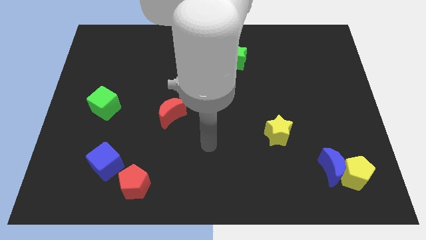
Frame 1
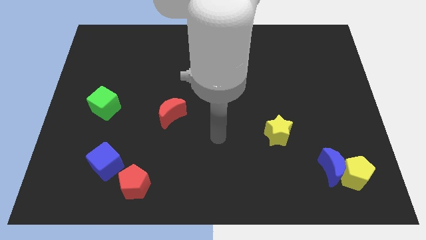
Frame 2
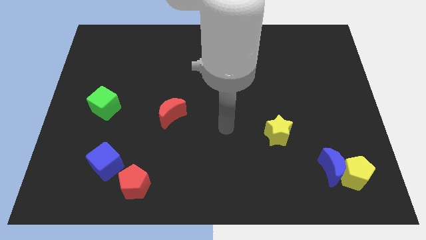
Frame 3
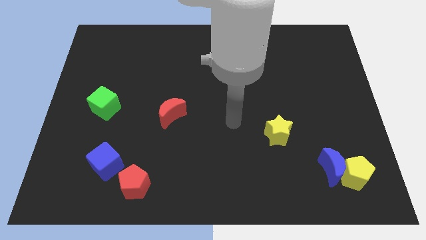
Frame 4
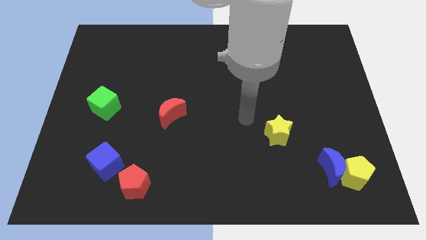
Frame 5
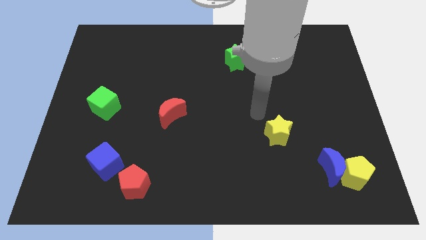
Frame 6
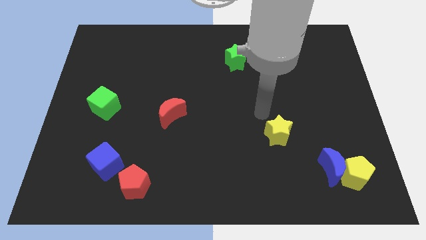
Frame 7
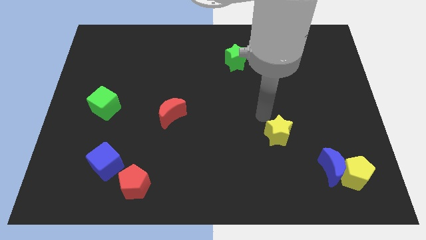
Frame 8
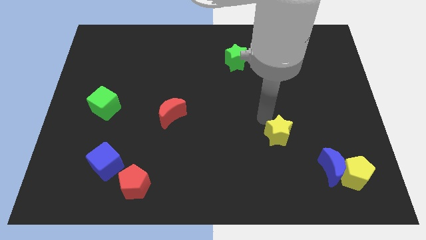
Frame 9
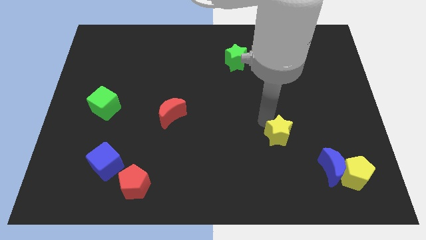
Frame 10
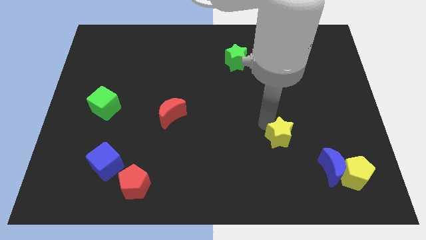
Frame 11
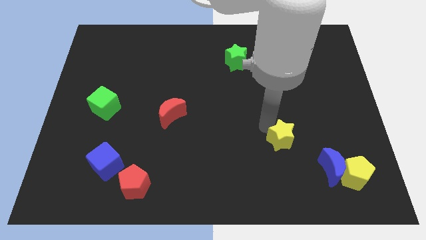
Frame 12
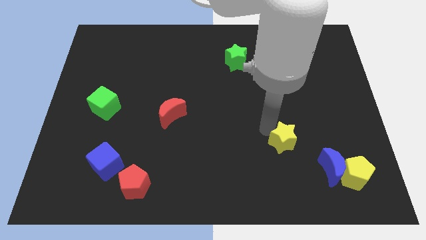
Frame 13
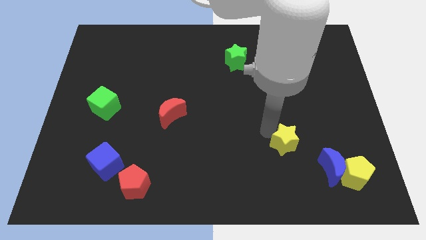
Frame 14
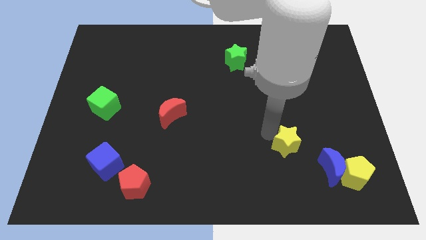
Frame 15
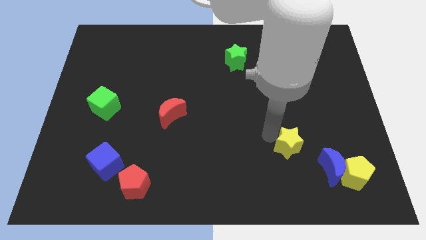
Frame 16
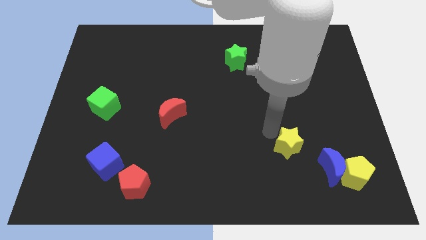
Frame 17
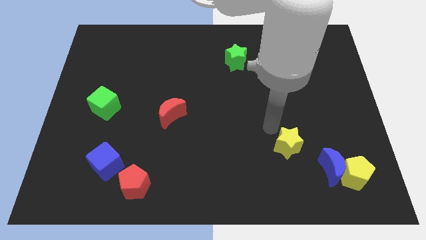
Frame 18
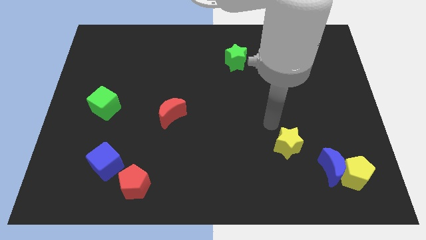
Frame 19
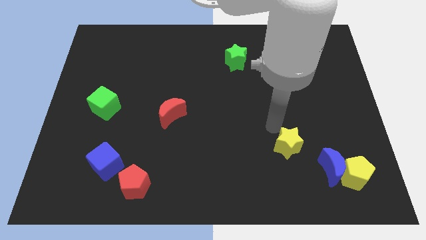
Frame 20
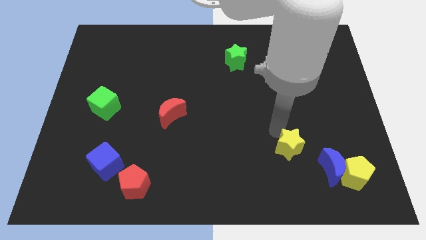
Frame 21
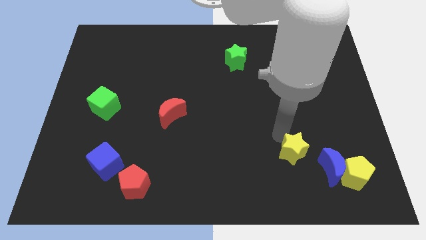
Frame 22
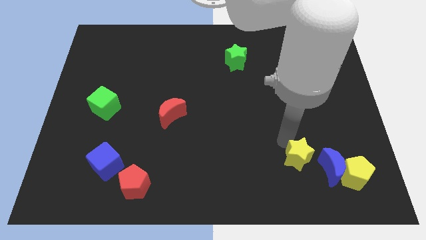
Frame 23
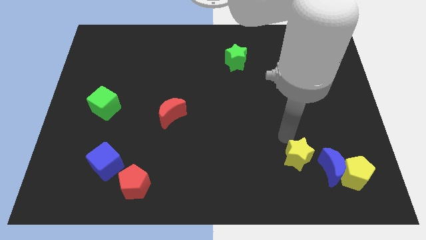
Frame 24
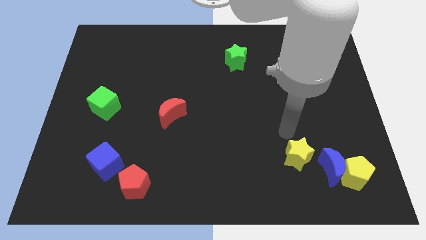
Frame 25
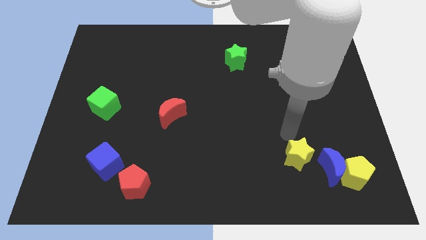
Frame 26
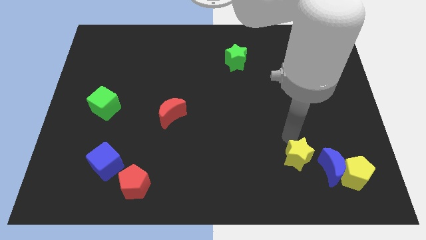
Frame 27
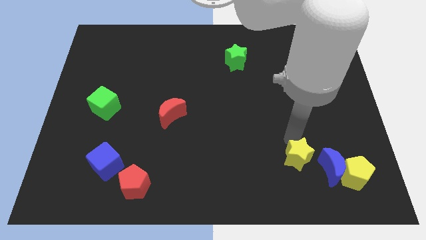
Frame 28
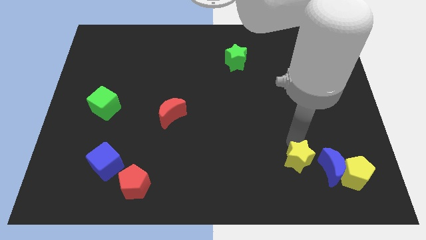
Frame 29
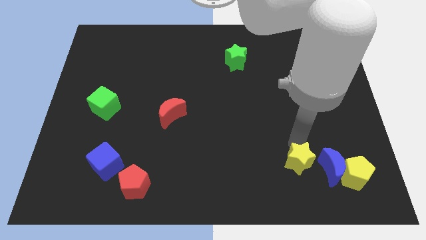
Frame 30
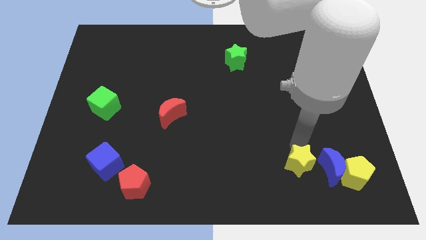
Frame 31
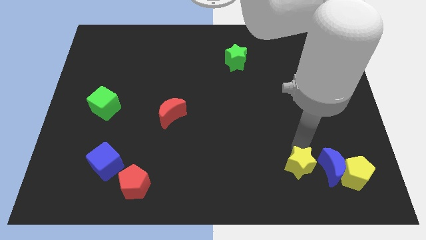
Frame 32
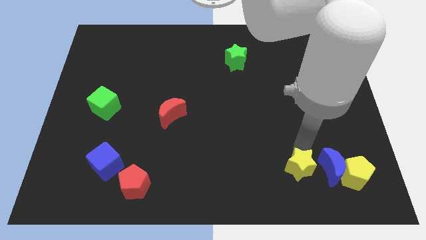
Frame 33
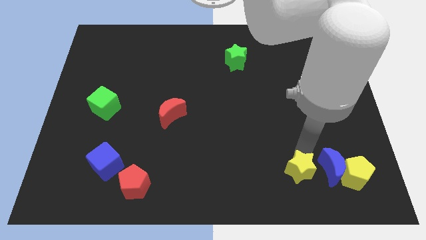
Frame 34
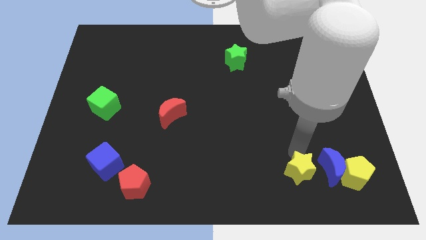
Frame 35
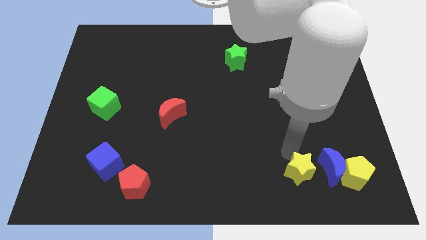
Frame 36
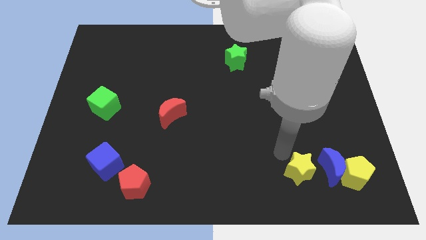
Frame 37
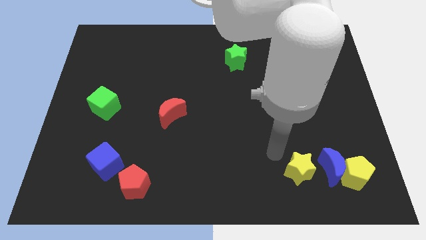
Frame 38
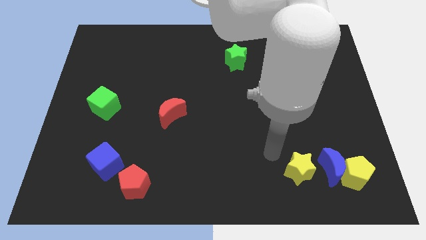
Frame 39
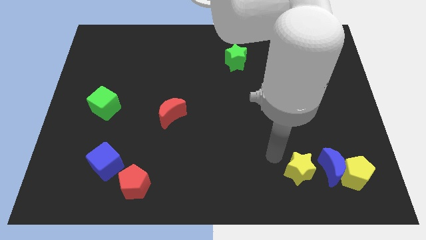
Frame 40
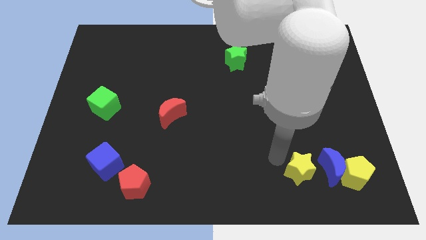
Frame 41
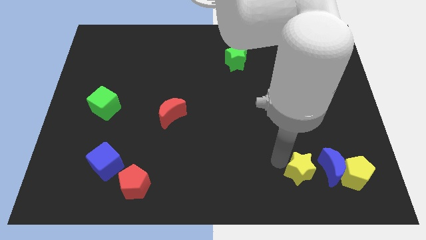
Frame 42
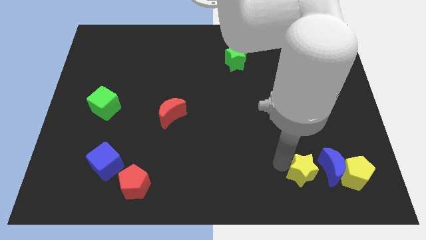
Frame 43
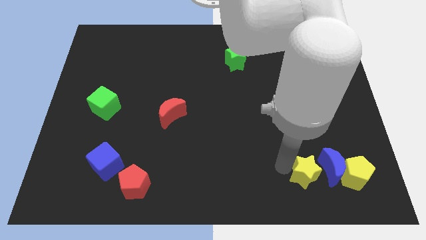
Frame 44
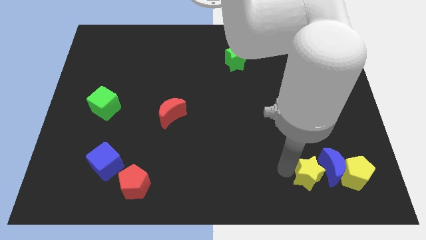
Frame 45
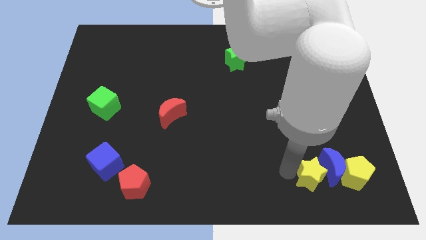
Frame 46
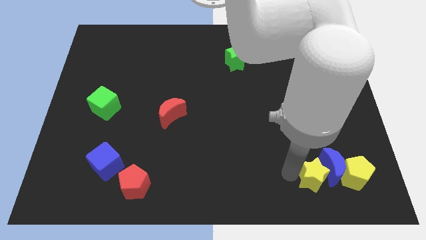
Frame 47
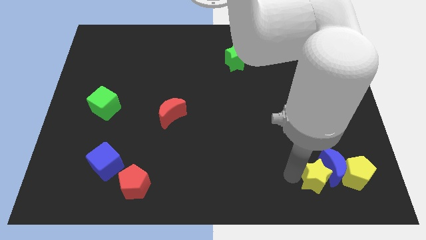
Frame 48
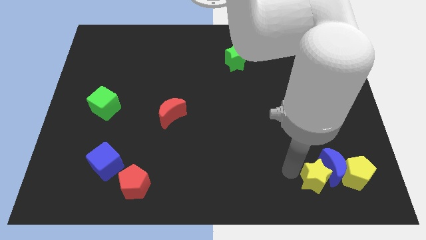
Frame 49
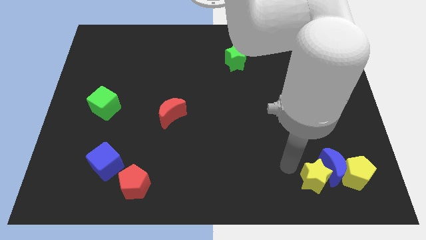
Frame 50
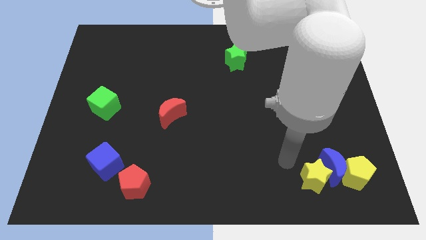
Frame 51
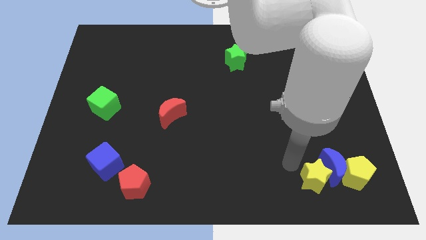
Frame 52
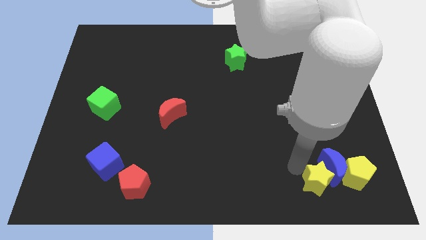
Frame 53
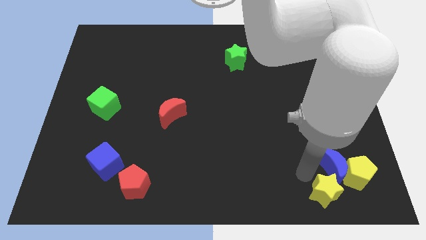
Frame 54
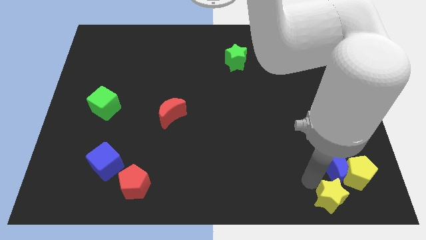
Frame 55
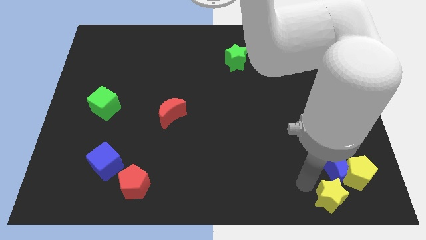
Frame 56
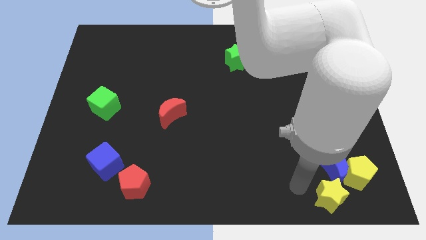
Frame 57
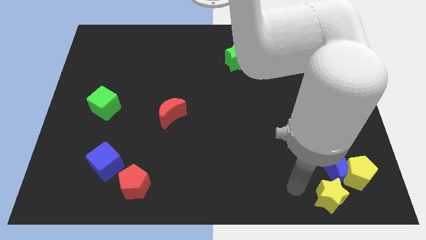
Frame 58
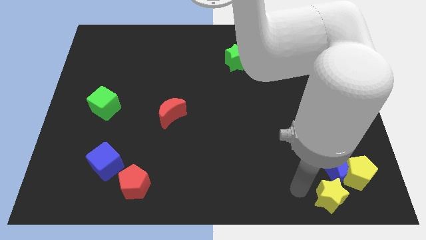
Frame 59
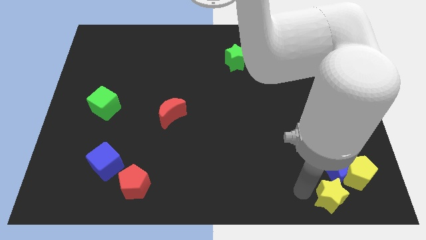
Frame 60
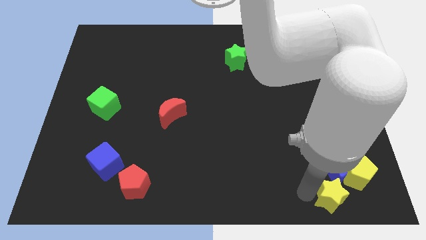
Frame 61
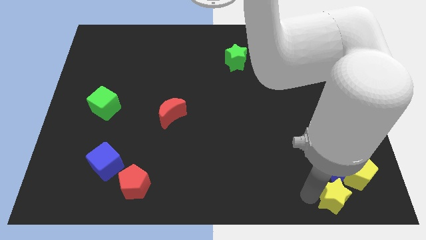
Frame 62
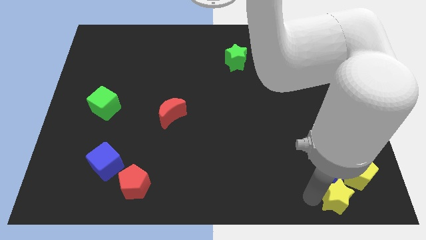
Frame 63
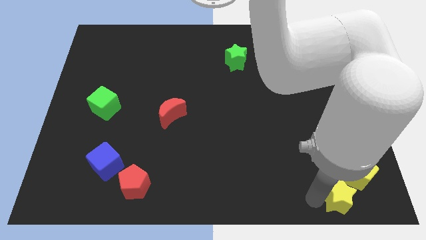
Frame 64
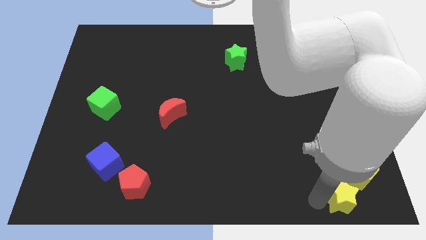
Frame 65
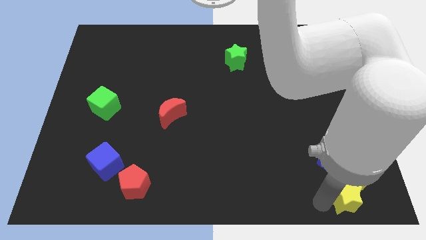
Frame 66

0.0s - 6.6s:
push the yellow star to the lower right corner

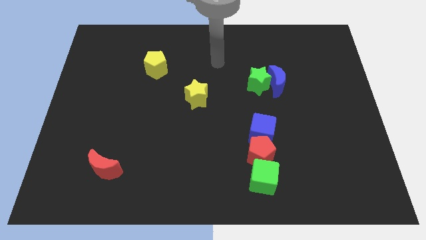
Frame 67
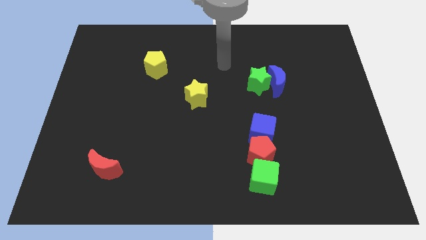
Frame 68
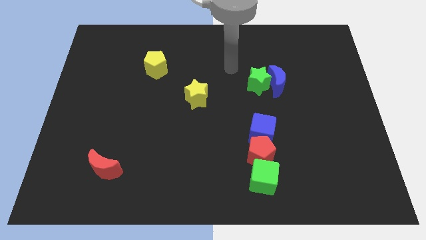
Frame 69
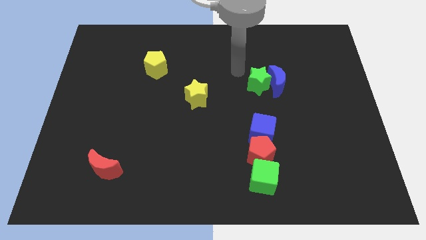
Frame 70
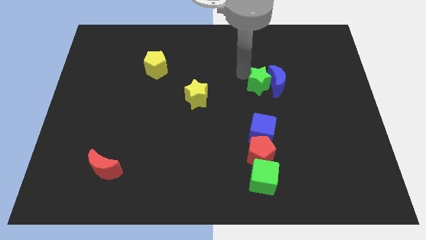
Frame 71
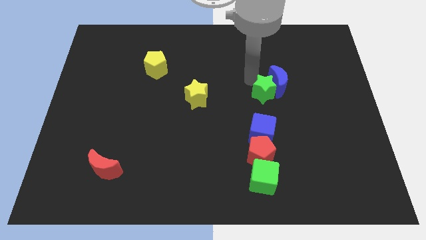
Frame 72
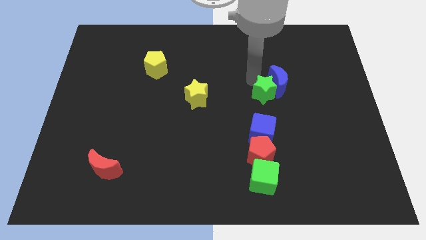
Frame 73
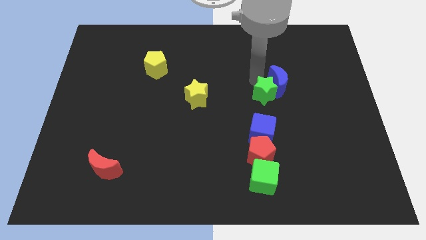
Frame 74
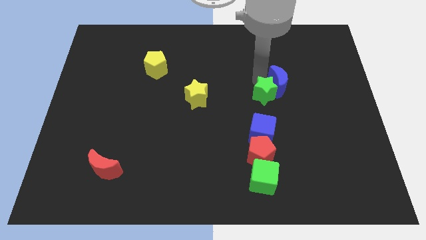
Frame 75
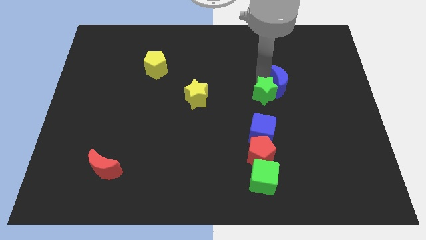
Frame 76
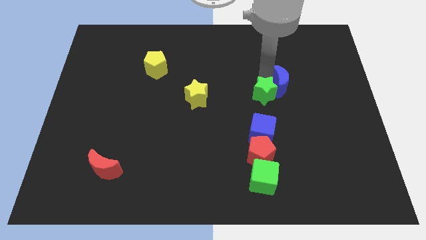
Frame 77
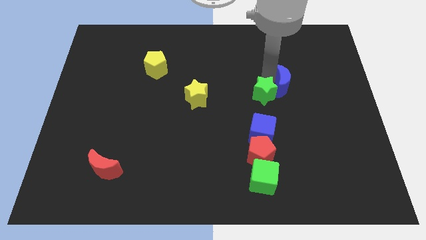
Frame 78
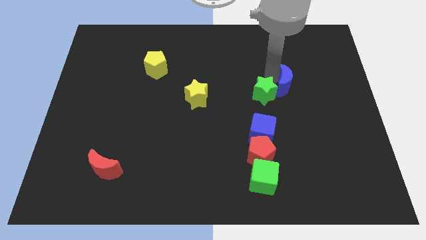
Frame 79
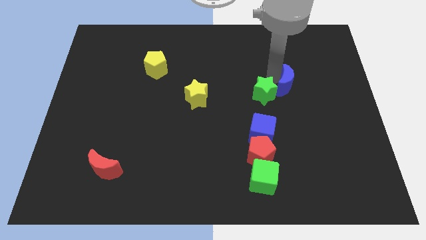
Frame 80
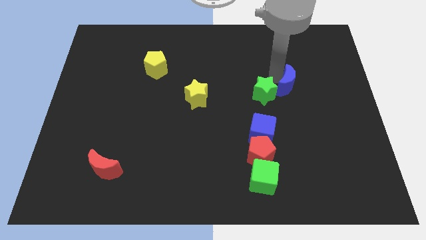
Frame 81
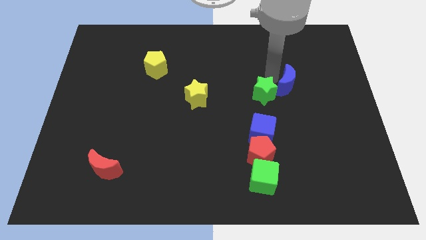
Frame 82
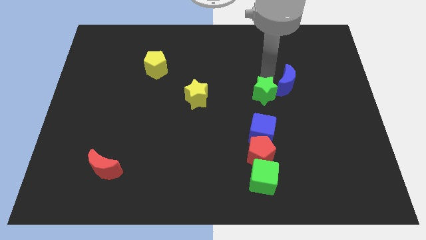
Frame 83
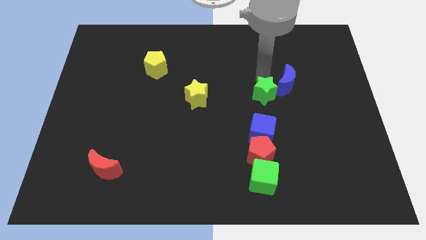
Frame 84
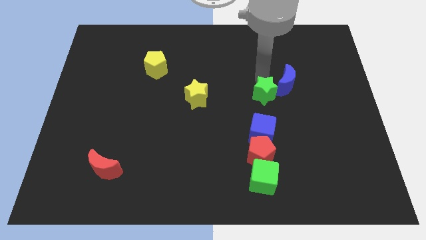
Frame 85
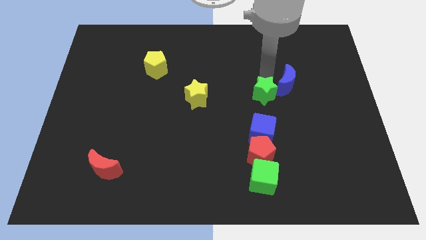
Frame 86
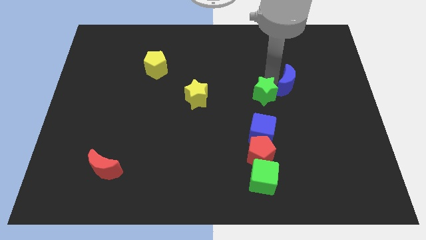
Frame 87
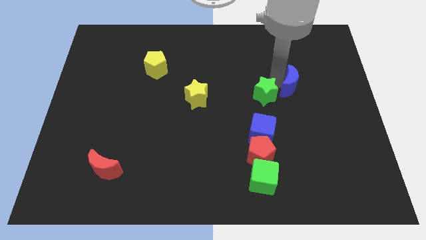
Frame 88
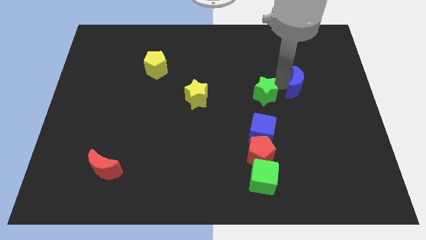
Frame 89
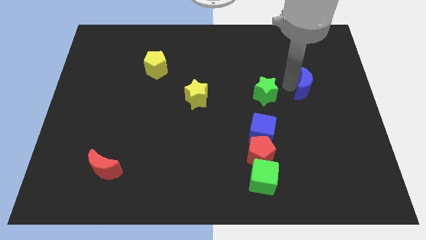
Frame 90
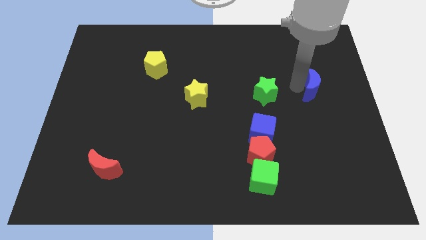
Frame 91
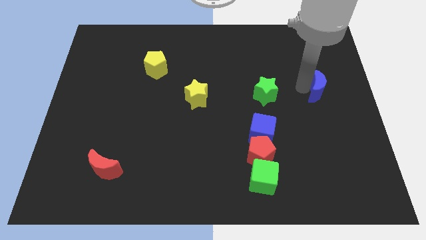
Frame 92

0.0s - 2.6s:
push the blue moon to the right side
